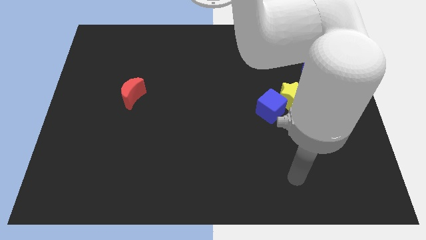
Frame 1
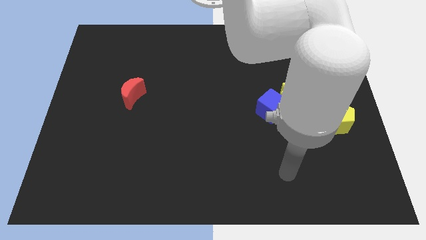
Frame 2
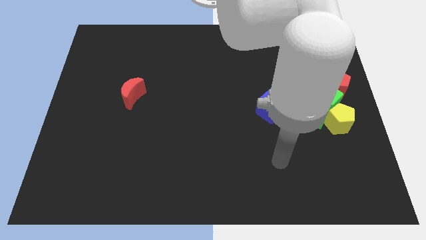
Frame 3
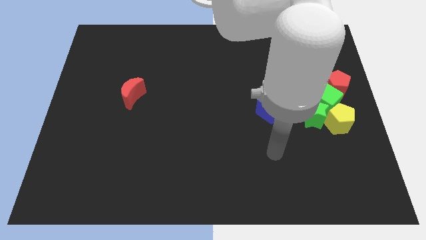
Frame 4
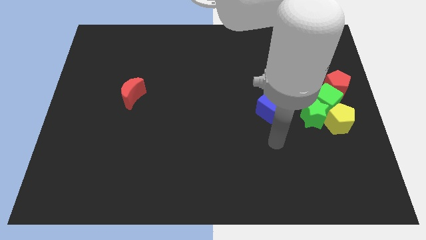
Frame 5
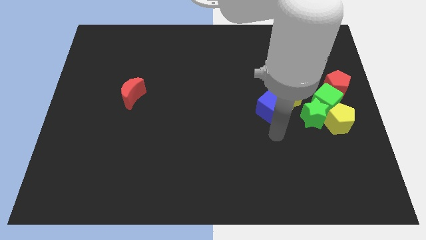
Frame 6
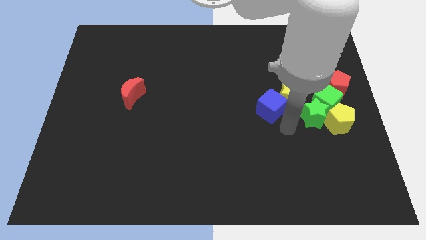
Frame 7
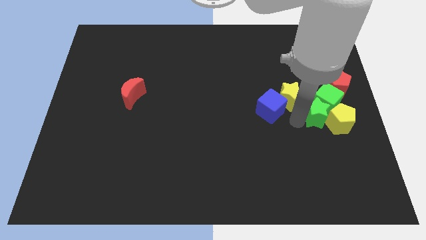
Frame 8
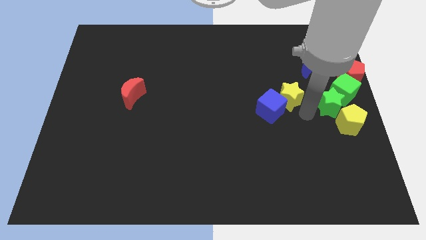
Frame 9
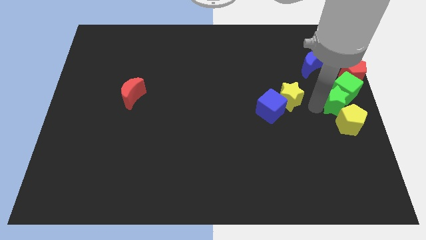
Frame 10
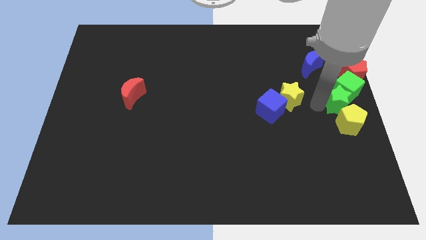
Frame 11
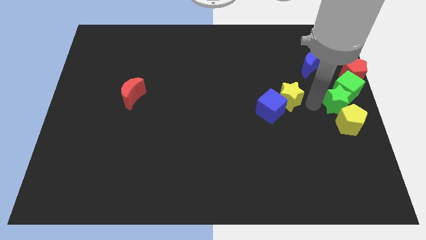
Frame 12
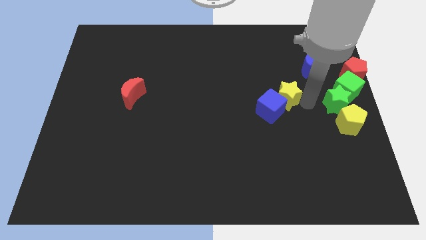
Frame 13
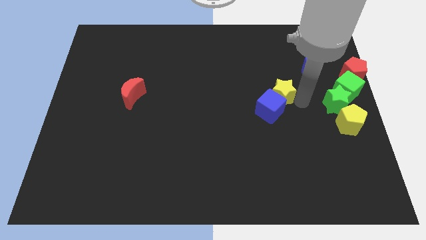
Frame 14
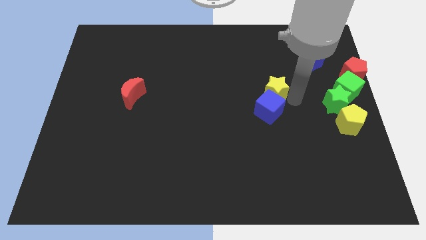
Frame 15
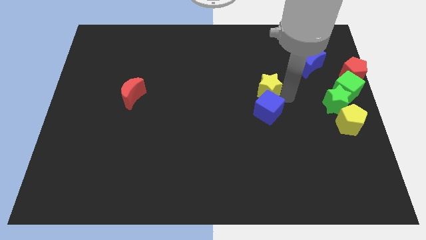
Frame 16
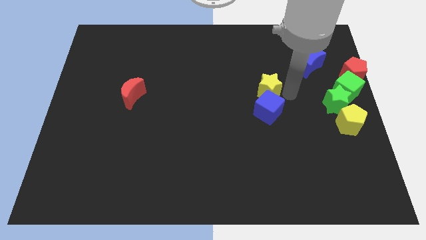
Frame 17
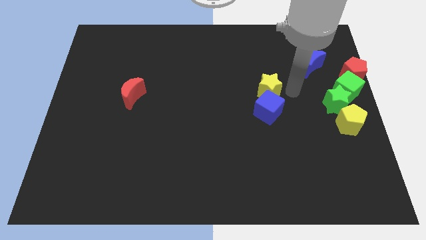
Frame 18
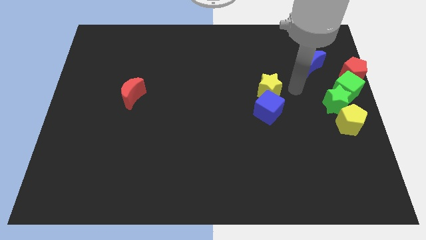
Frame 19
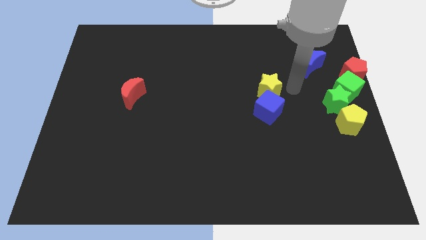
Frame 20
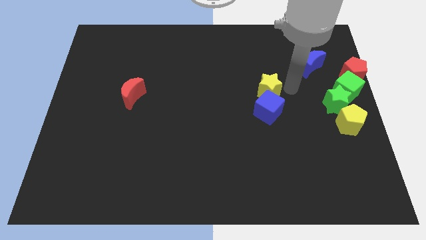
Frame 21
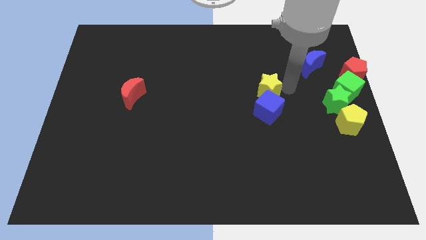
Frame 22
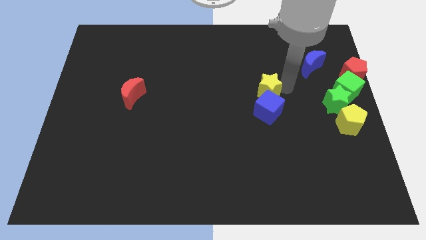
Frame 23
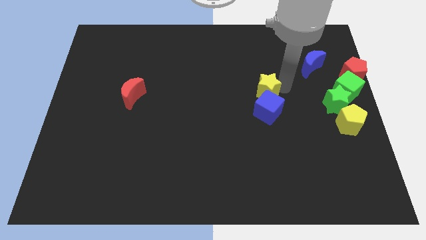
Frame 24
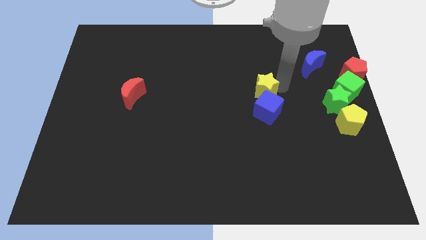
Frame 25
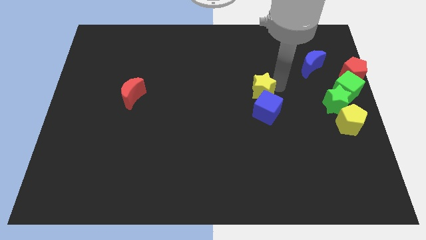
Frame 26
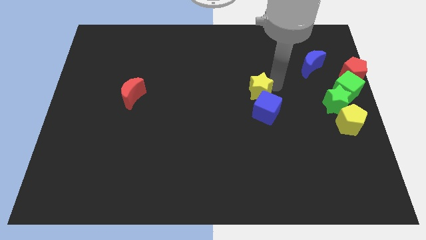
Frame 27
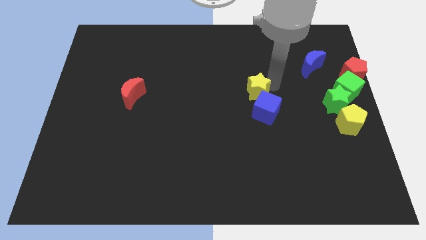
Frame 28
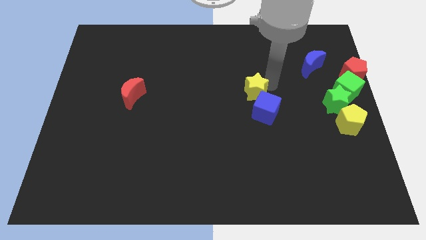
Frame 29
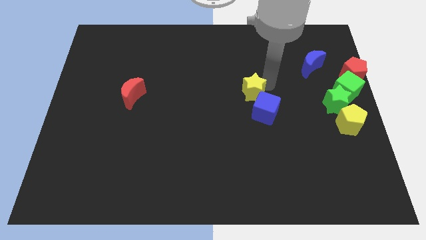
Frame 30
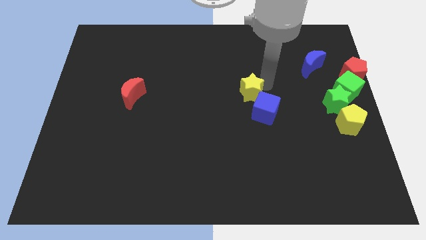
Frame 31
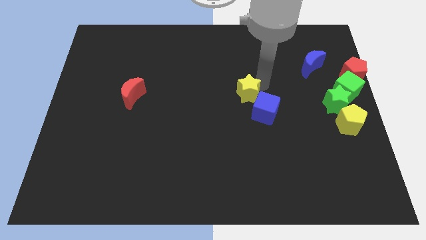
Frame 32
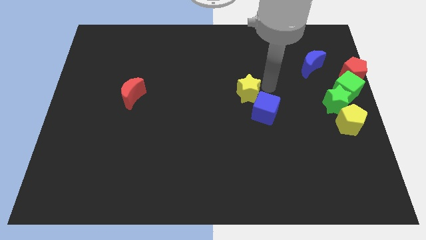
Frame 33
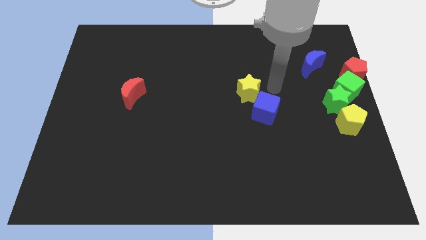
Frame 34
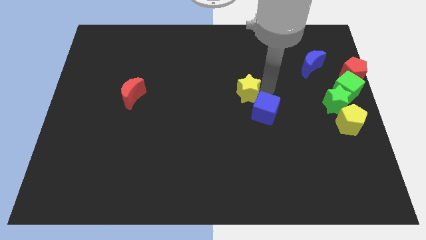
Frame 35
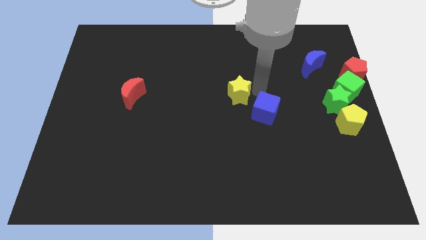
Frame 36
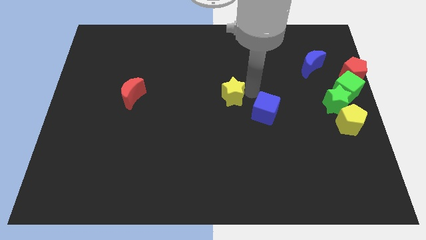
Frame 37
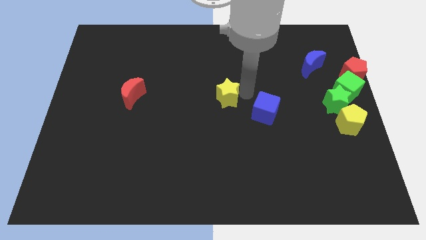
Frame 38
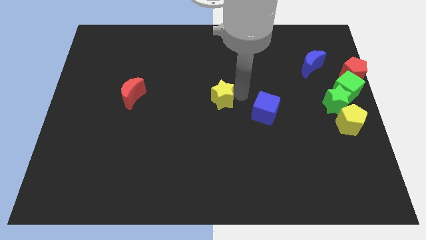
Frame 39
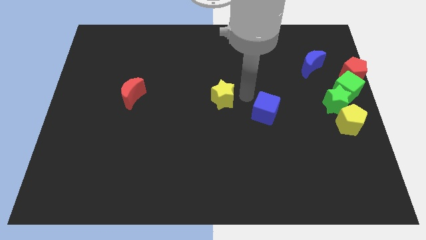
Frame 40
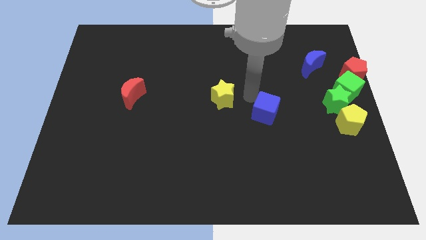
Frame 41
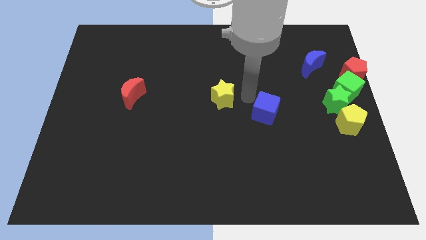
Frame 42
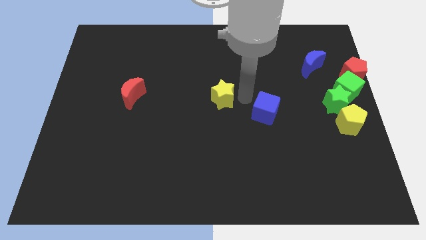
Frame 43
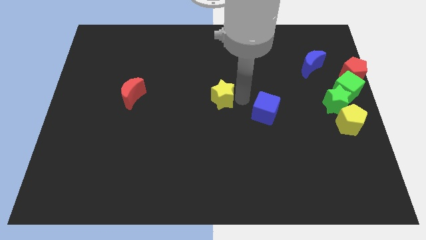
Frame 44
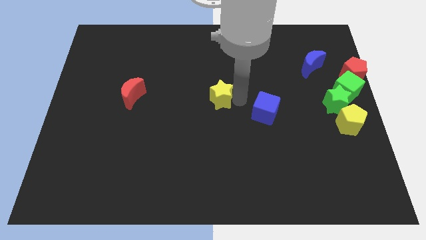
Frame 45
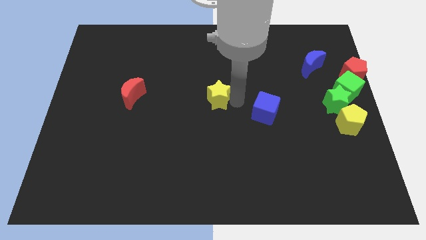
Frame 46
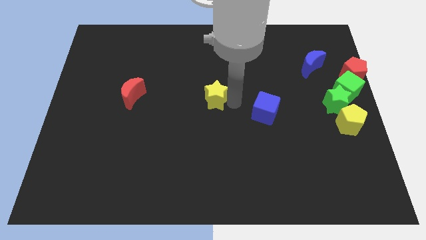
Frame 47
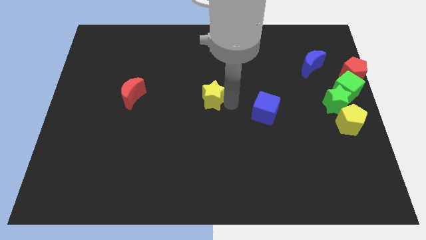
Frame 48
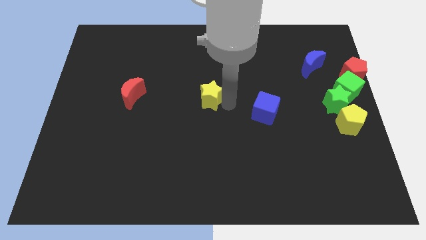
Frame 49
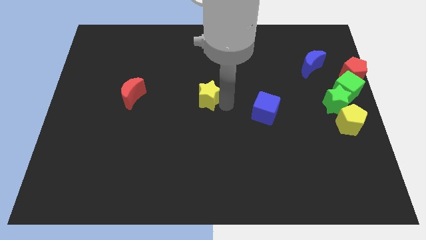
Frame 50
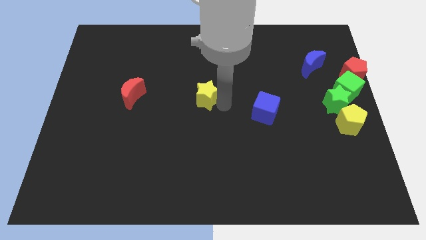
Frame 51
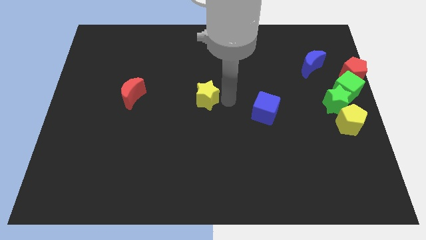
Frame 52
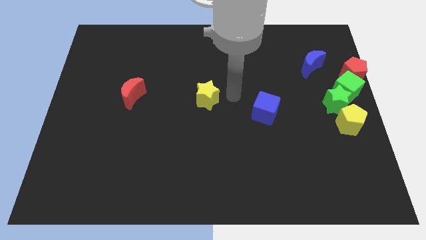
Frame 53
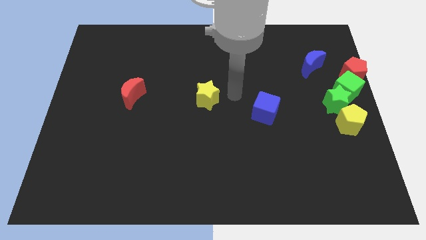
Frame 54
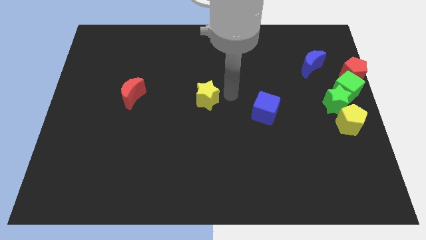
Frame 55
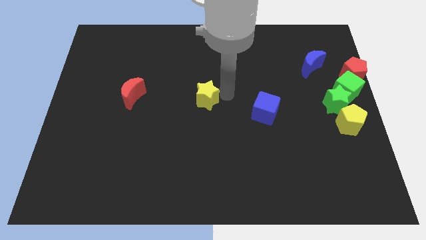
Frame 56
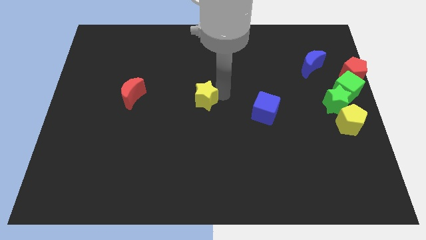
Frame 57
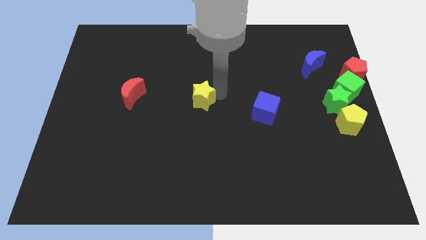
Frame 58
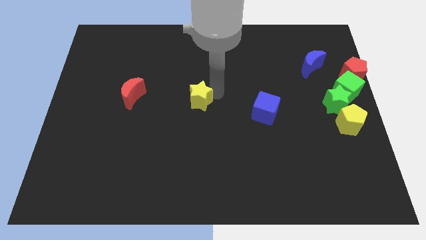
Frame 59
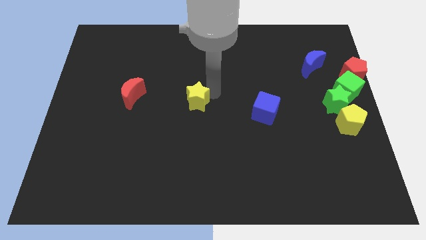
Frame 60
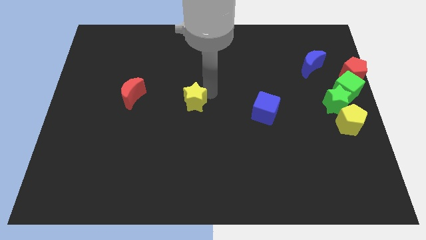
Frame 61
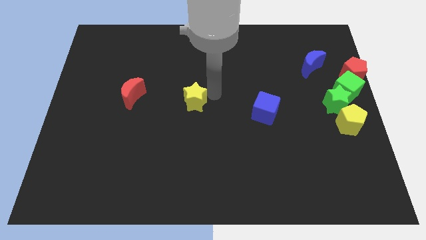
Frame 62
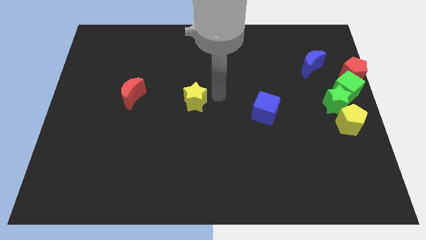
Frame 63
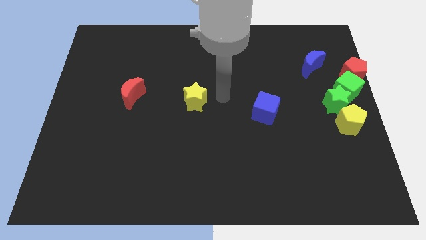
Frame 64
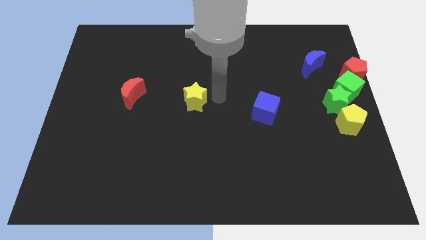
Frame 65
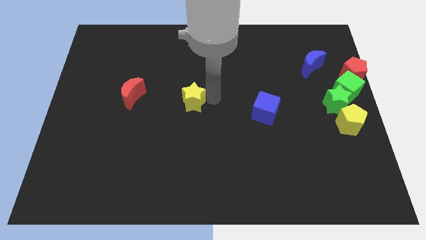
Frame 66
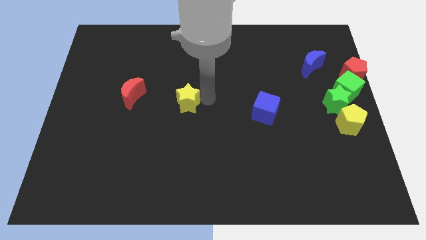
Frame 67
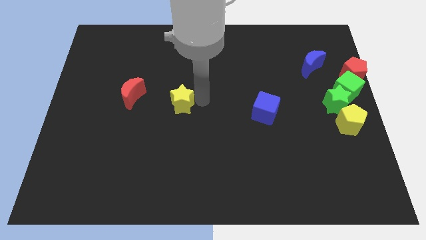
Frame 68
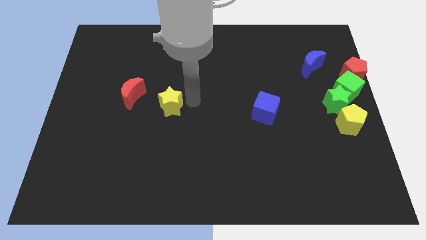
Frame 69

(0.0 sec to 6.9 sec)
push the yellow star to the bottom right side of the red moon

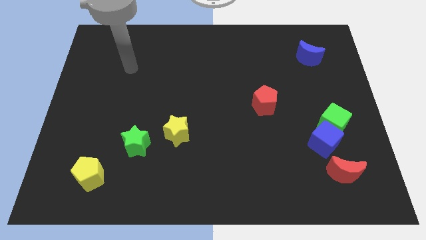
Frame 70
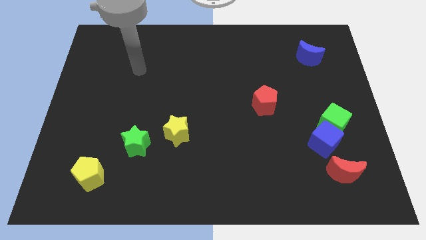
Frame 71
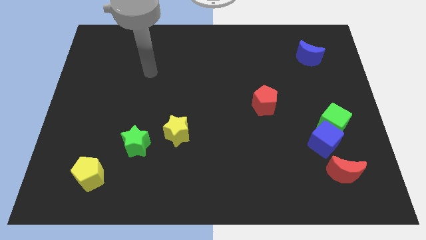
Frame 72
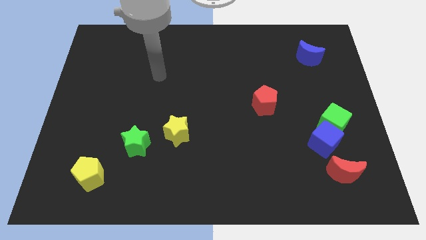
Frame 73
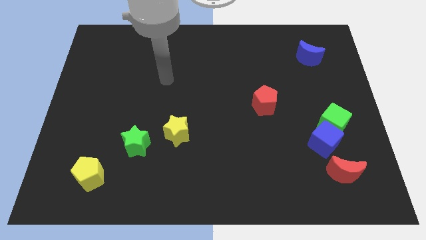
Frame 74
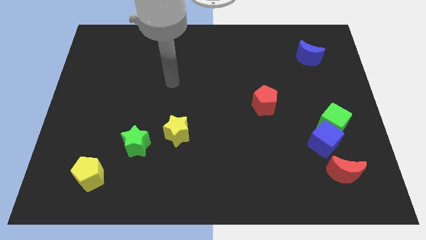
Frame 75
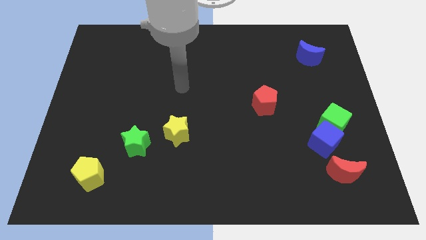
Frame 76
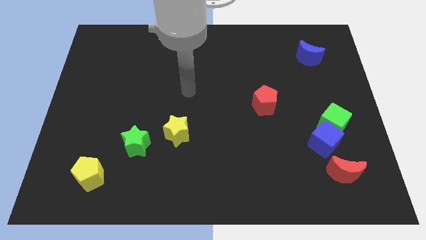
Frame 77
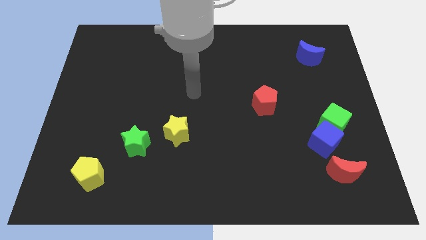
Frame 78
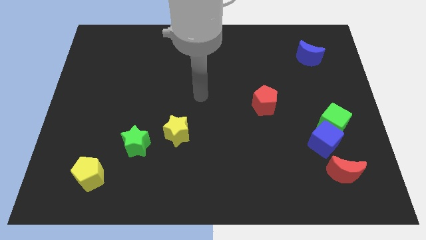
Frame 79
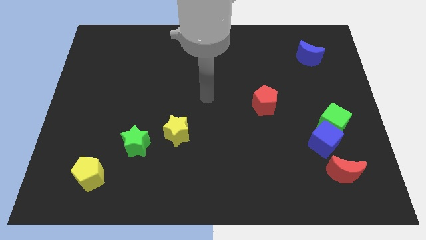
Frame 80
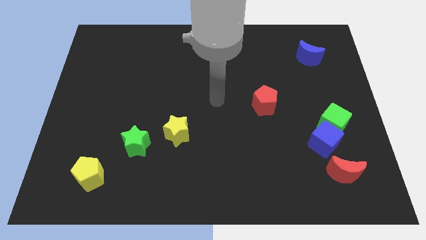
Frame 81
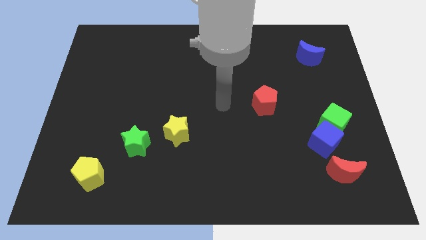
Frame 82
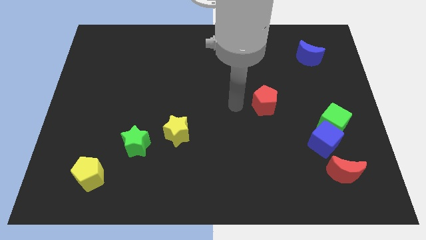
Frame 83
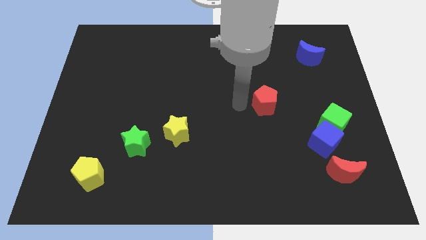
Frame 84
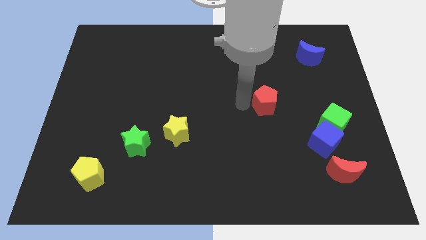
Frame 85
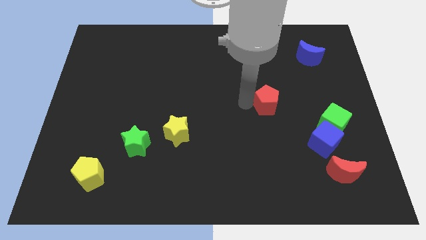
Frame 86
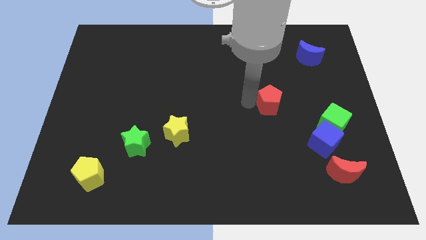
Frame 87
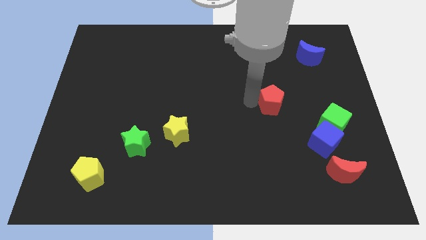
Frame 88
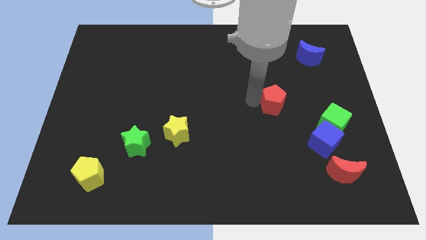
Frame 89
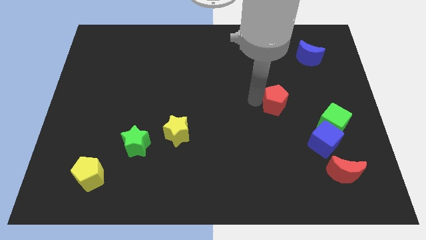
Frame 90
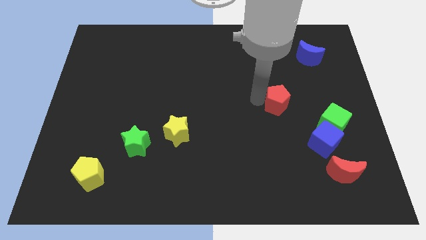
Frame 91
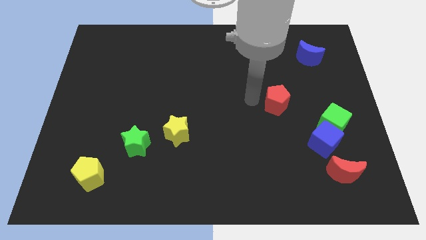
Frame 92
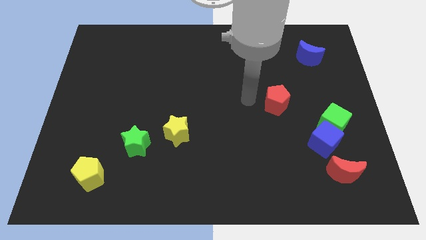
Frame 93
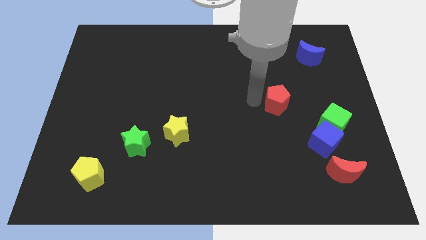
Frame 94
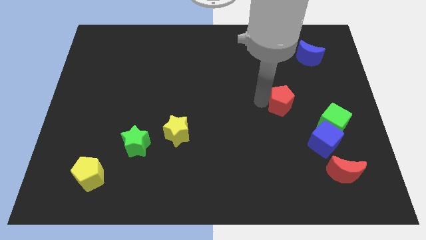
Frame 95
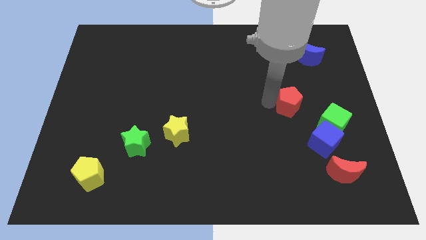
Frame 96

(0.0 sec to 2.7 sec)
push the red pentagon to the top left side of the green cube
